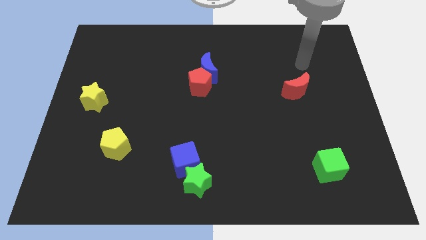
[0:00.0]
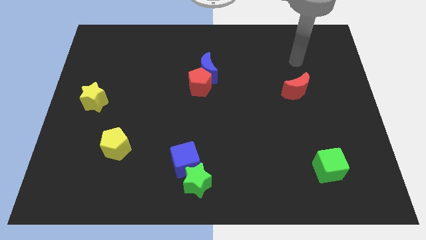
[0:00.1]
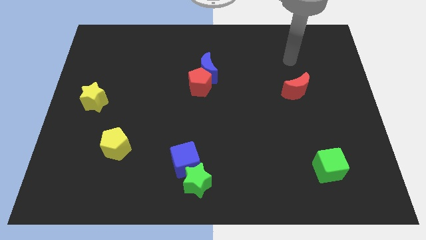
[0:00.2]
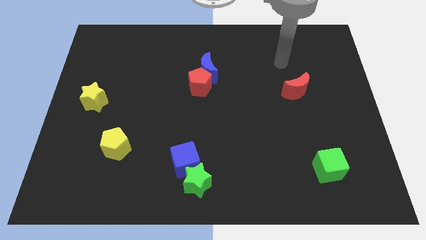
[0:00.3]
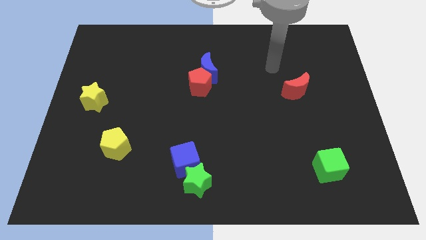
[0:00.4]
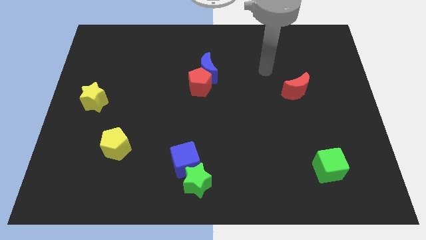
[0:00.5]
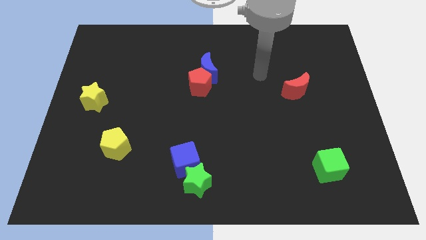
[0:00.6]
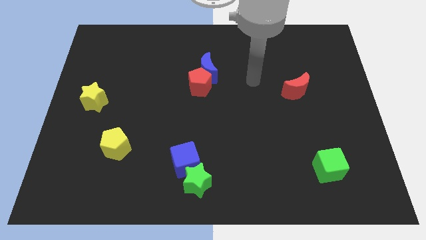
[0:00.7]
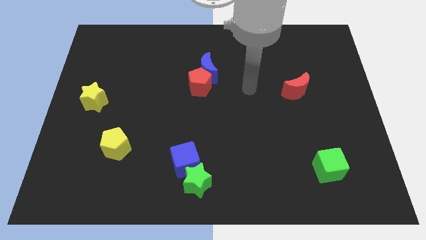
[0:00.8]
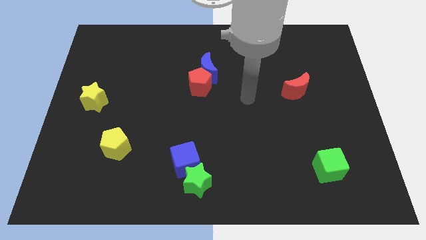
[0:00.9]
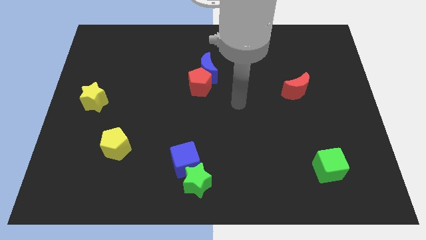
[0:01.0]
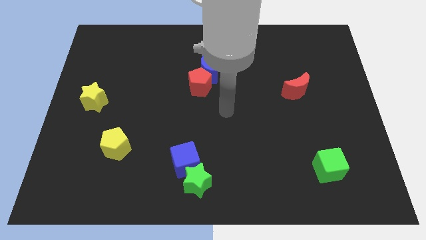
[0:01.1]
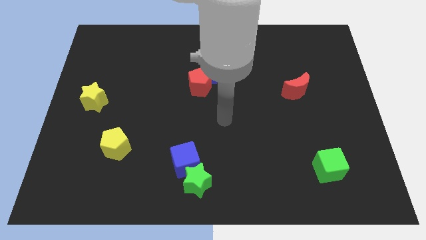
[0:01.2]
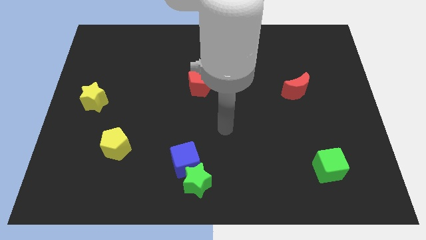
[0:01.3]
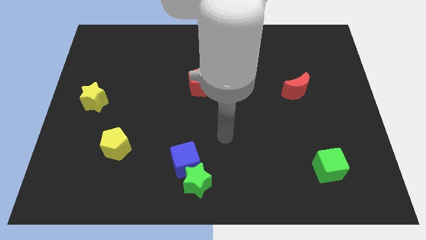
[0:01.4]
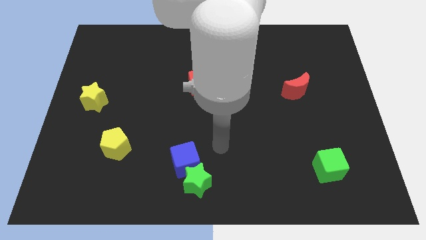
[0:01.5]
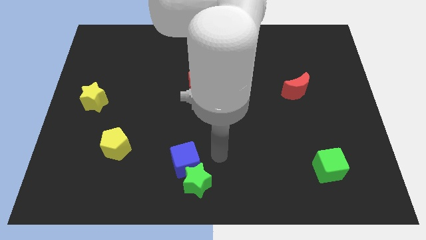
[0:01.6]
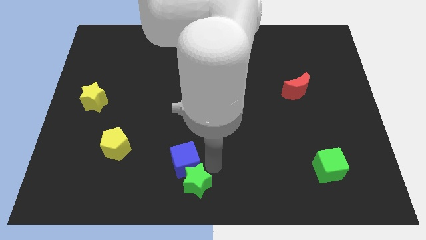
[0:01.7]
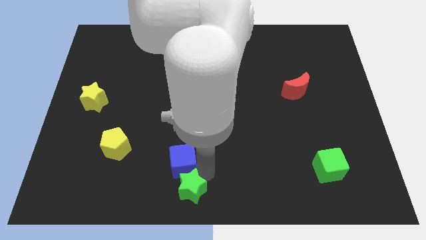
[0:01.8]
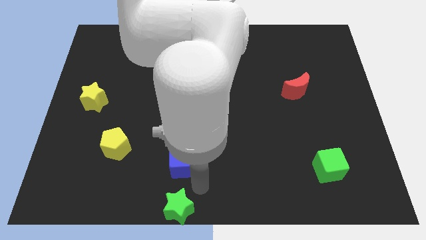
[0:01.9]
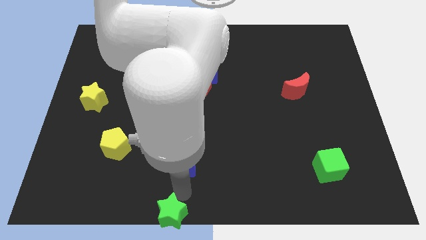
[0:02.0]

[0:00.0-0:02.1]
separate the blue cube from the green star

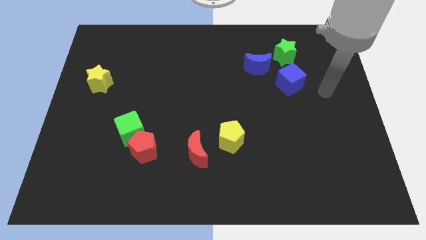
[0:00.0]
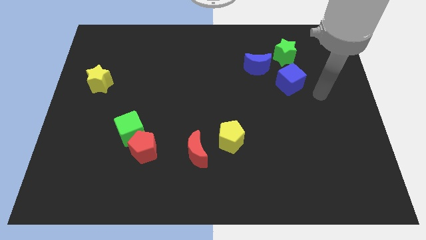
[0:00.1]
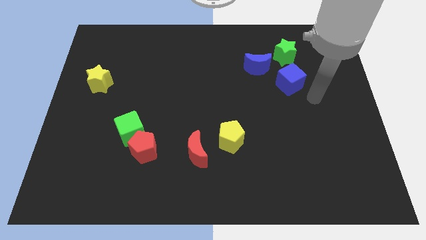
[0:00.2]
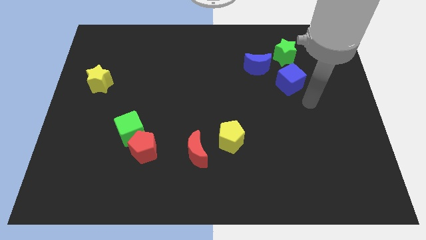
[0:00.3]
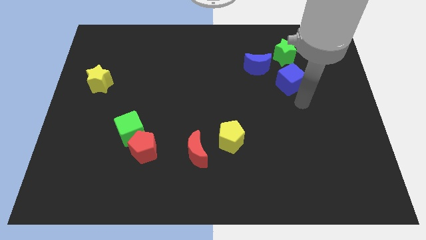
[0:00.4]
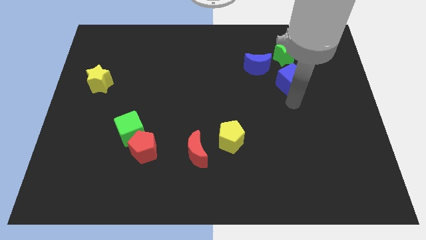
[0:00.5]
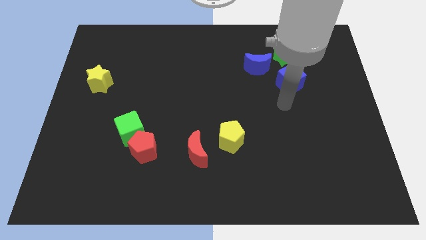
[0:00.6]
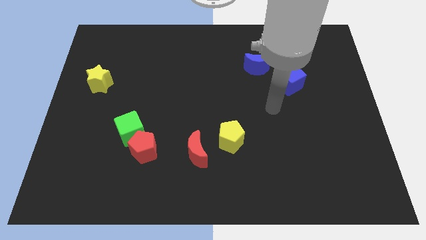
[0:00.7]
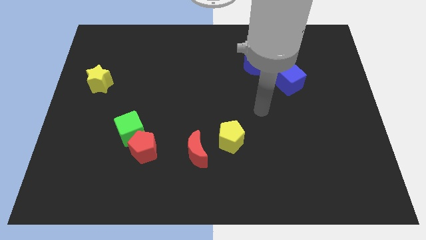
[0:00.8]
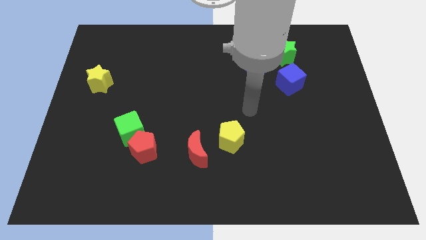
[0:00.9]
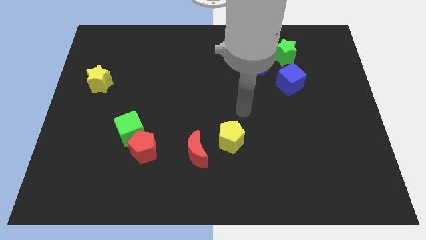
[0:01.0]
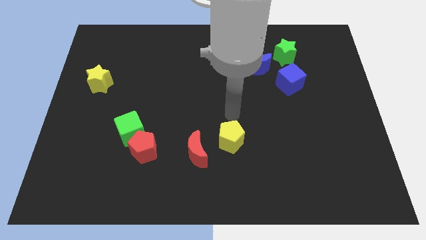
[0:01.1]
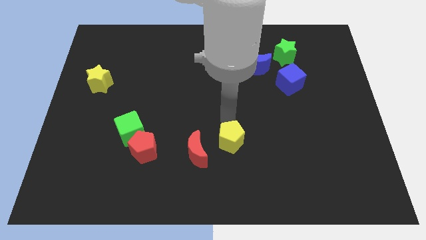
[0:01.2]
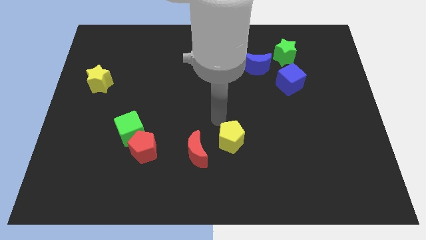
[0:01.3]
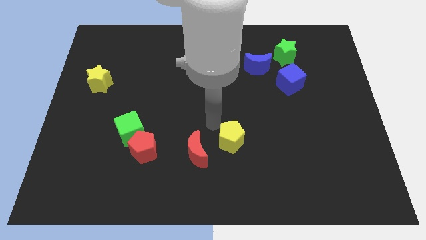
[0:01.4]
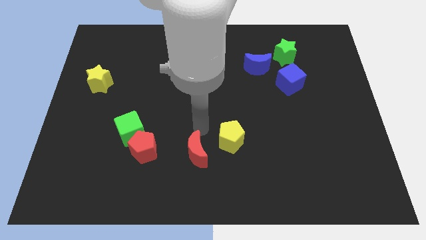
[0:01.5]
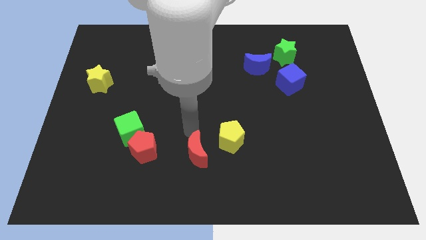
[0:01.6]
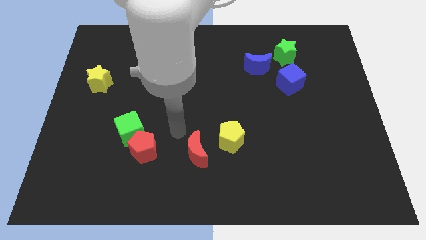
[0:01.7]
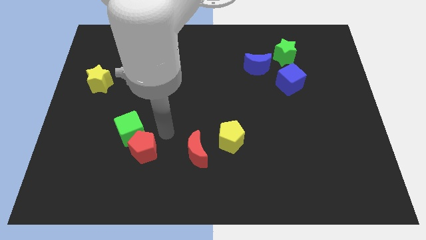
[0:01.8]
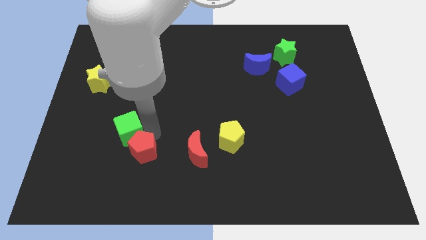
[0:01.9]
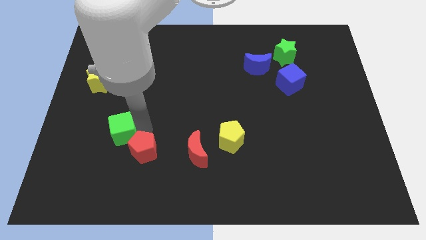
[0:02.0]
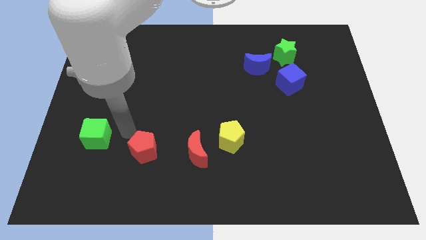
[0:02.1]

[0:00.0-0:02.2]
move the red pentagon away from the green cube

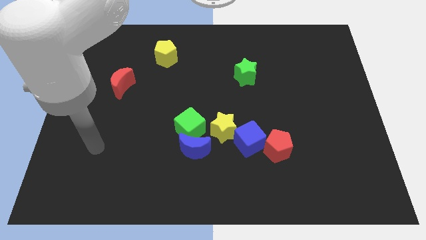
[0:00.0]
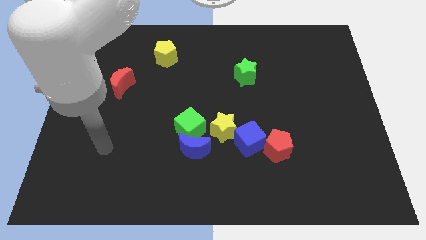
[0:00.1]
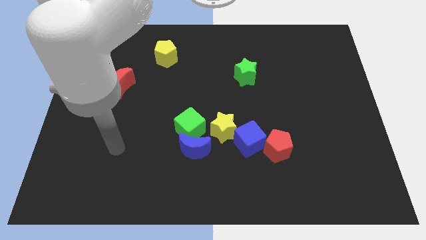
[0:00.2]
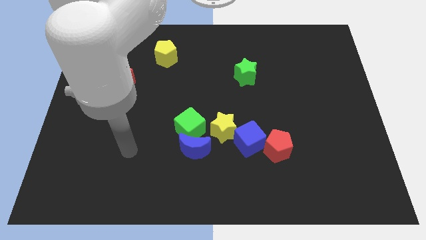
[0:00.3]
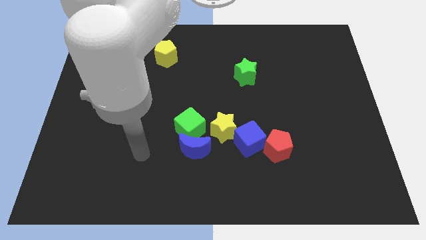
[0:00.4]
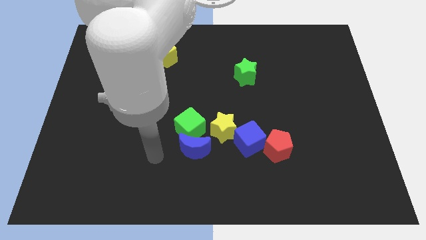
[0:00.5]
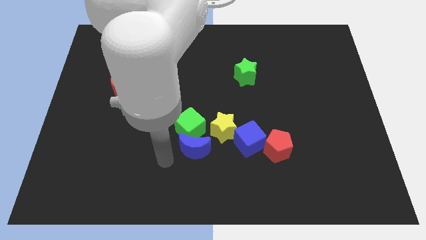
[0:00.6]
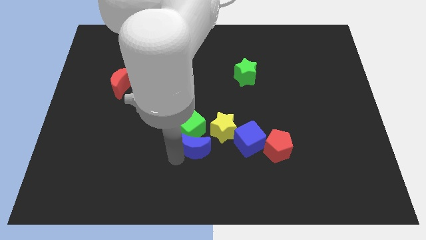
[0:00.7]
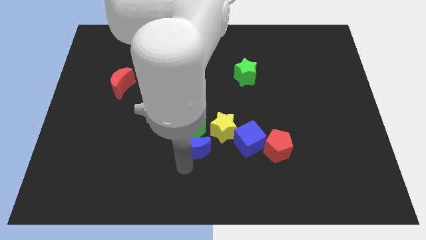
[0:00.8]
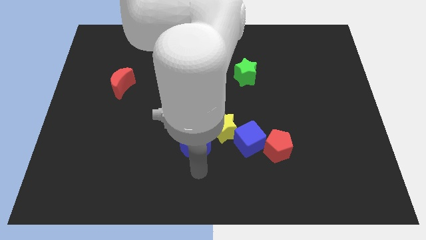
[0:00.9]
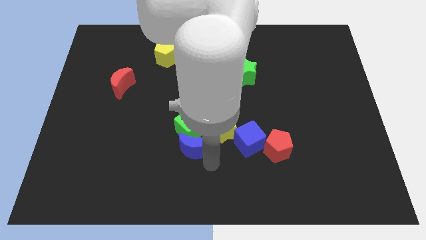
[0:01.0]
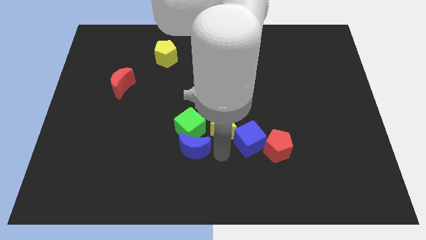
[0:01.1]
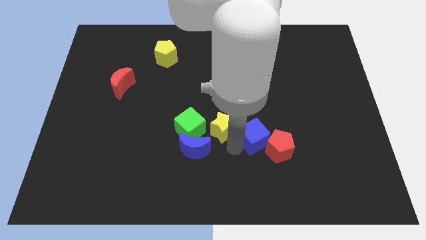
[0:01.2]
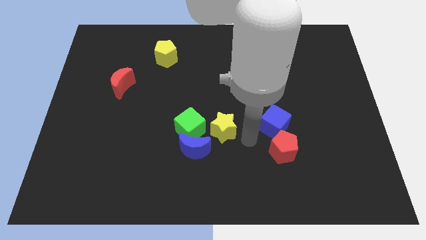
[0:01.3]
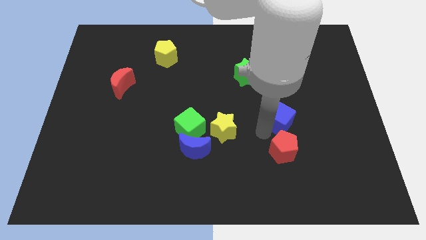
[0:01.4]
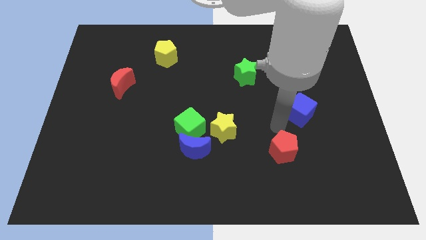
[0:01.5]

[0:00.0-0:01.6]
move the red pentagon away from the blue cube

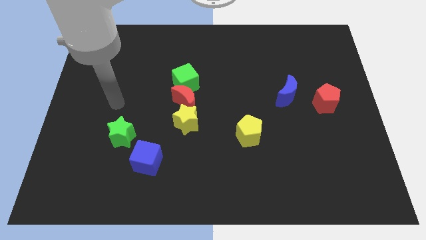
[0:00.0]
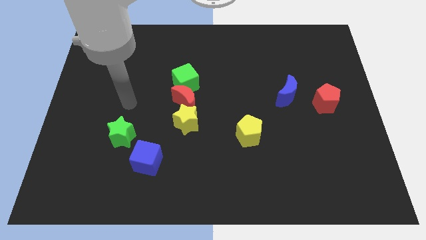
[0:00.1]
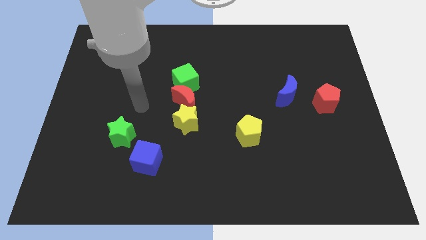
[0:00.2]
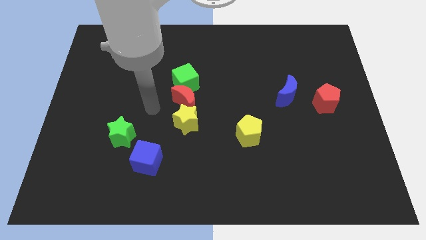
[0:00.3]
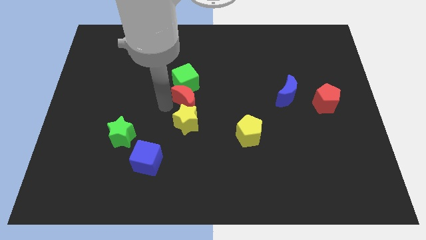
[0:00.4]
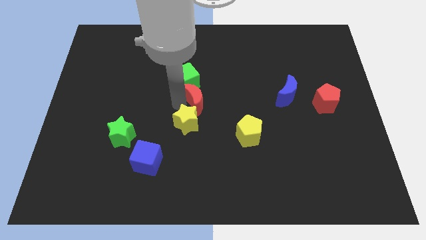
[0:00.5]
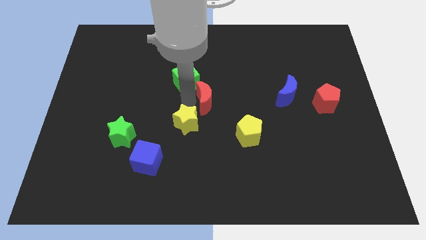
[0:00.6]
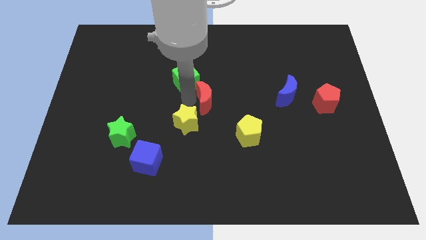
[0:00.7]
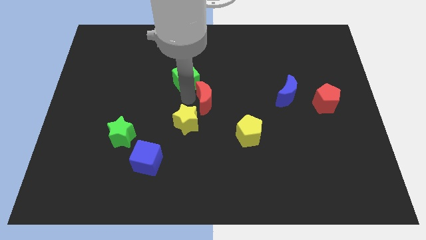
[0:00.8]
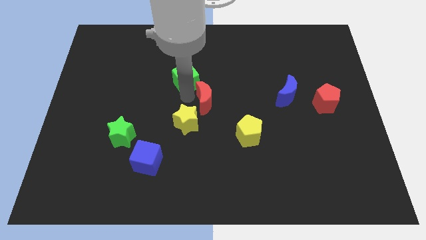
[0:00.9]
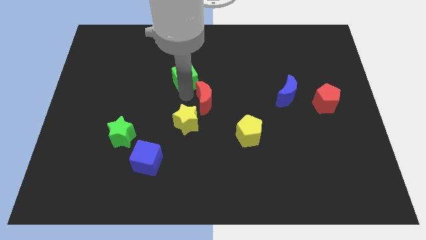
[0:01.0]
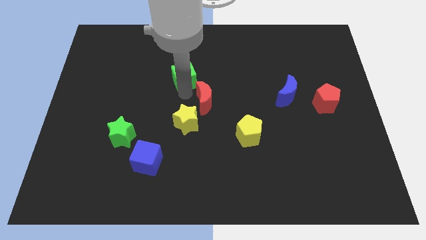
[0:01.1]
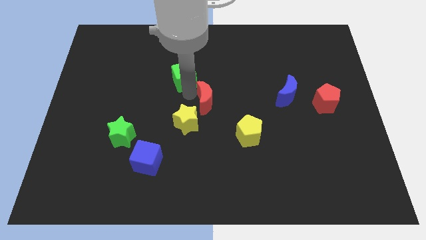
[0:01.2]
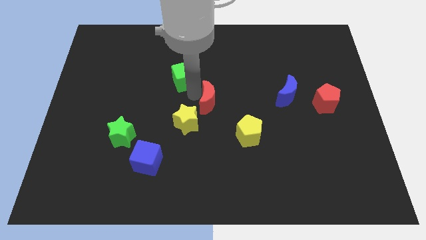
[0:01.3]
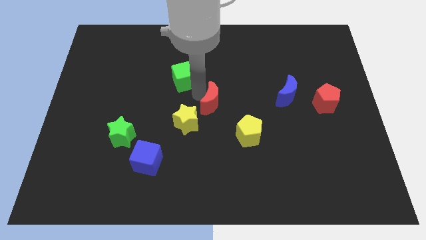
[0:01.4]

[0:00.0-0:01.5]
pull the green cube apart from the red moon

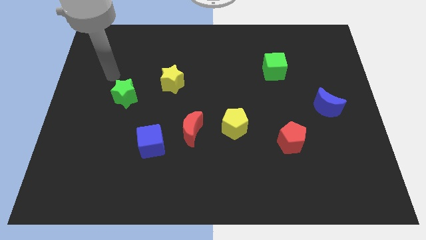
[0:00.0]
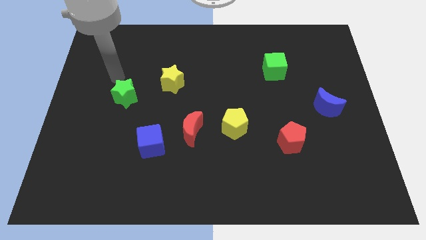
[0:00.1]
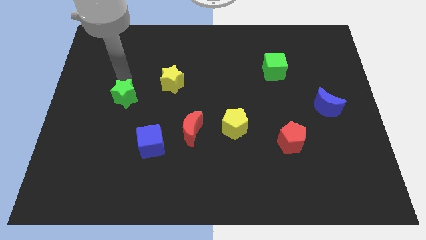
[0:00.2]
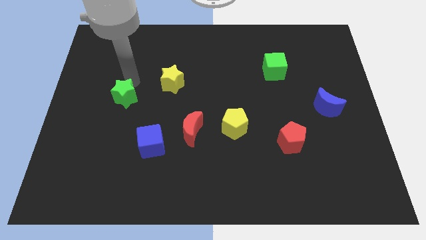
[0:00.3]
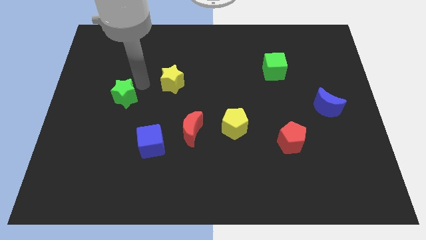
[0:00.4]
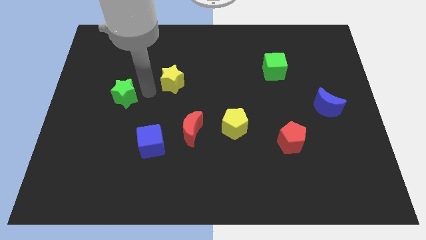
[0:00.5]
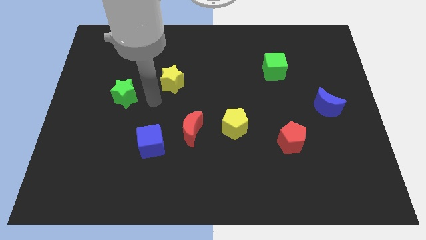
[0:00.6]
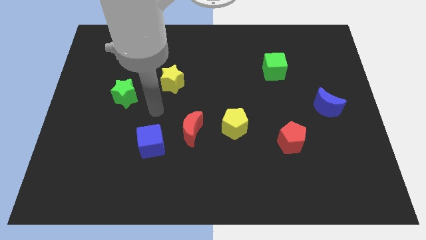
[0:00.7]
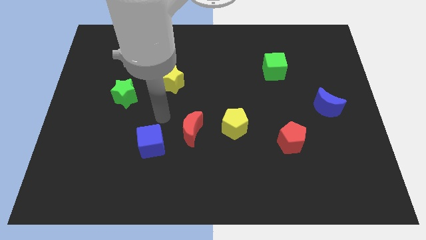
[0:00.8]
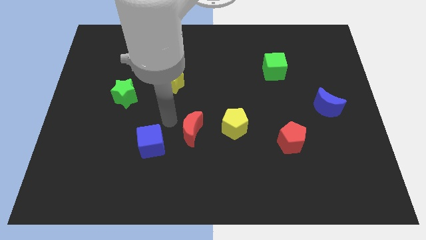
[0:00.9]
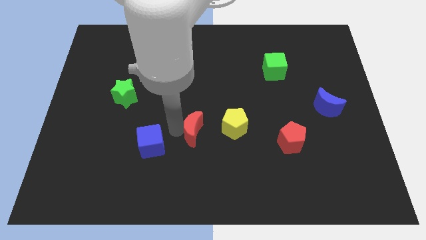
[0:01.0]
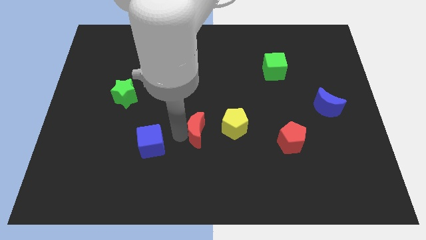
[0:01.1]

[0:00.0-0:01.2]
separate the blue cube from the red moon

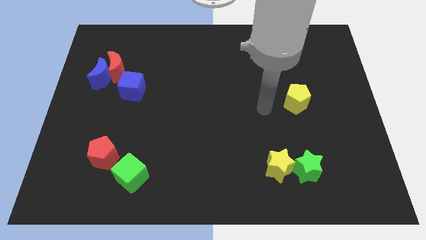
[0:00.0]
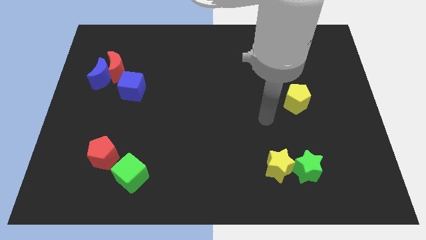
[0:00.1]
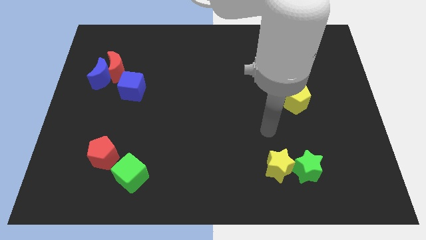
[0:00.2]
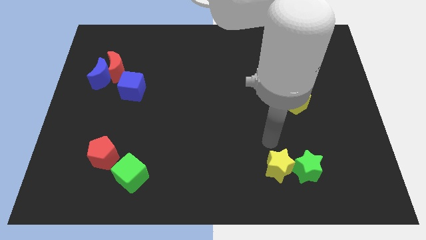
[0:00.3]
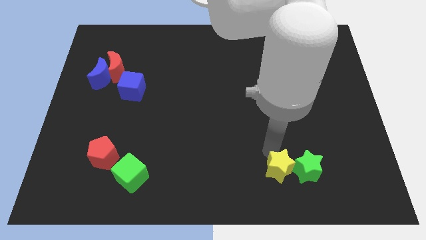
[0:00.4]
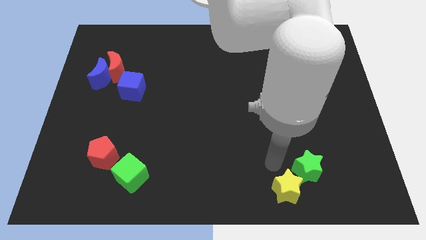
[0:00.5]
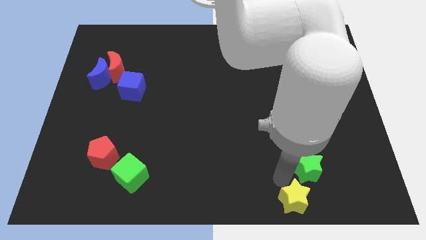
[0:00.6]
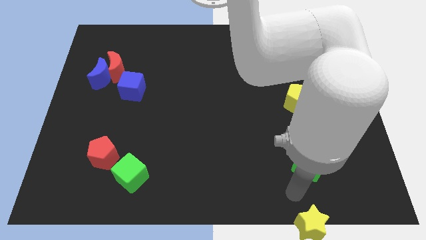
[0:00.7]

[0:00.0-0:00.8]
separate the green star from the yellow star
